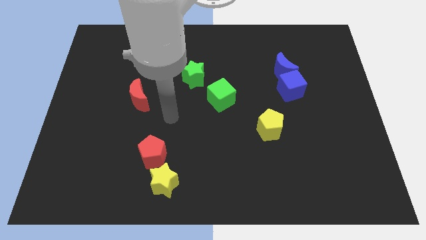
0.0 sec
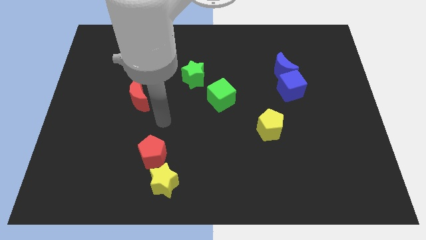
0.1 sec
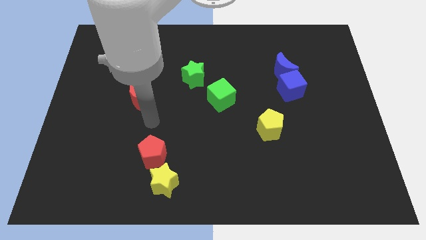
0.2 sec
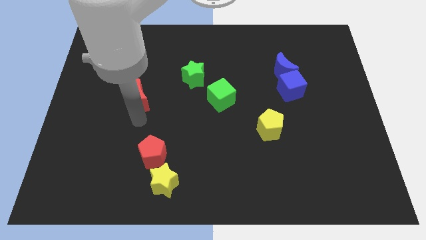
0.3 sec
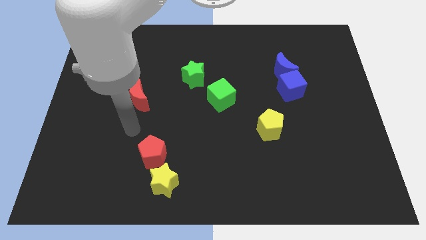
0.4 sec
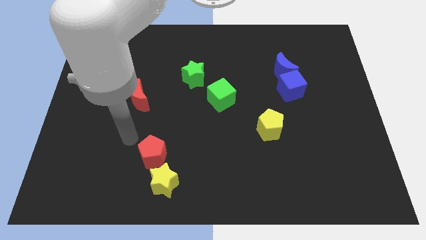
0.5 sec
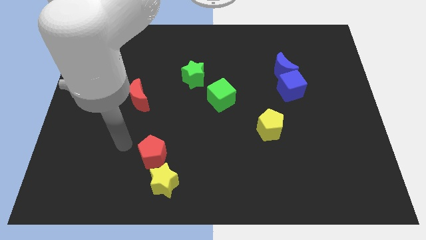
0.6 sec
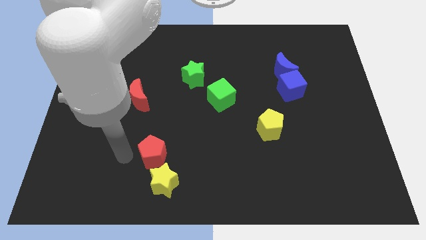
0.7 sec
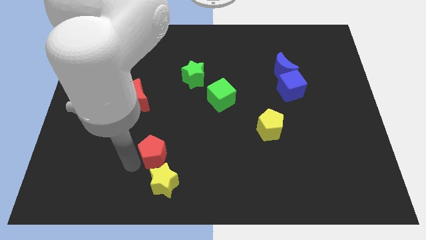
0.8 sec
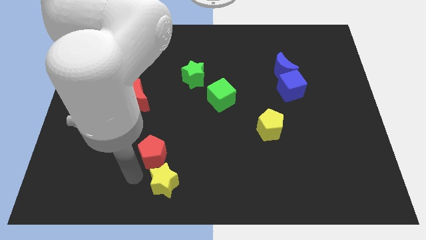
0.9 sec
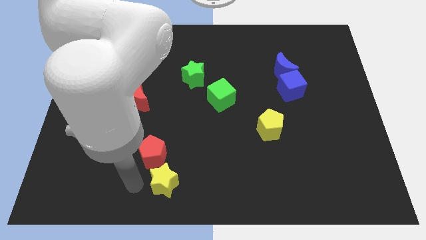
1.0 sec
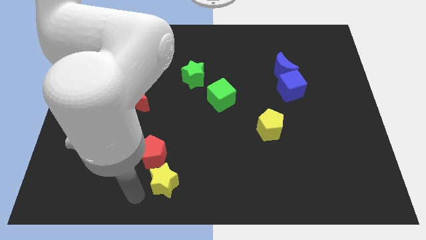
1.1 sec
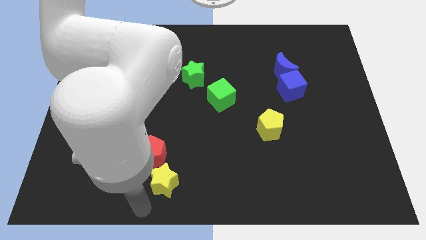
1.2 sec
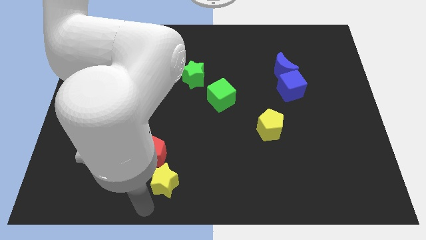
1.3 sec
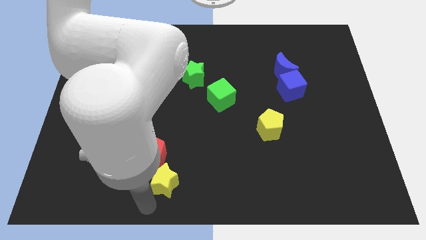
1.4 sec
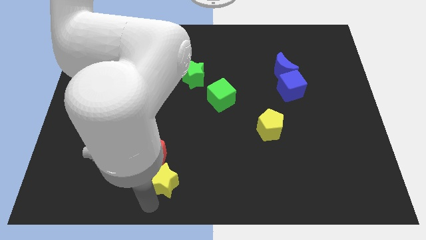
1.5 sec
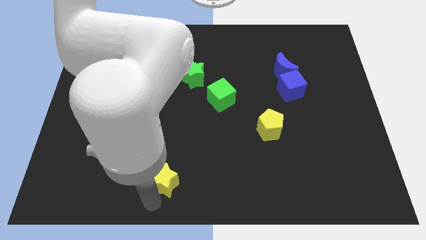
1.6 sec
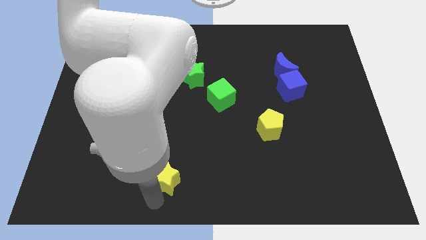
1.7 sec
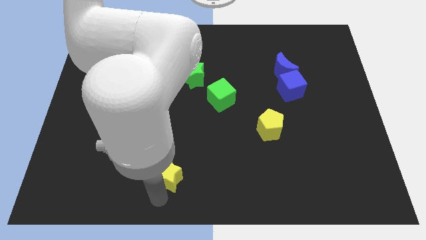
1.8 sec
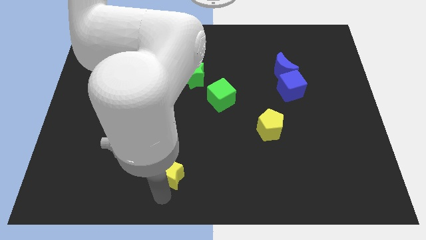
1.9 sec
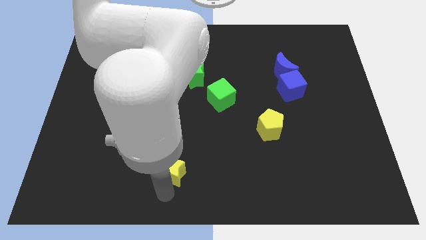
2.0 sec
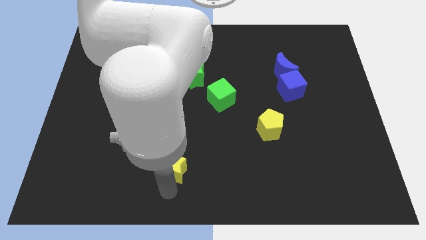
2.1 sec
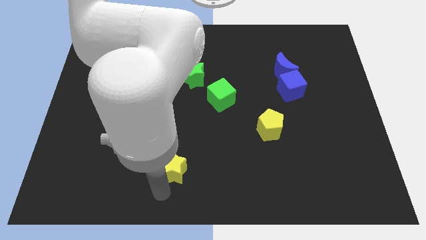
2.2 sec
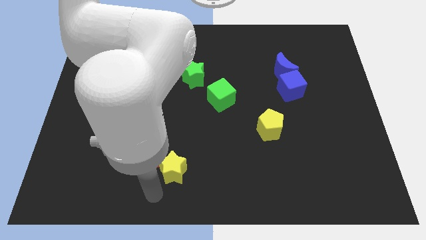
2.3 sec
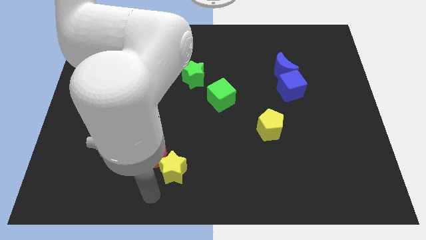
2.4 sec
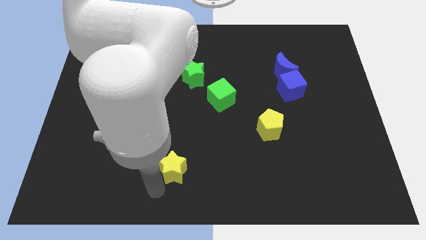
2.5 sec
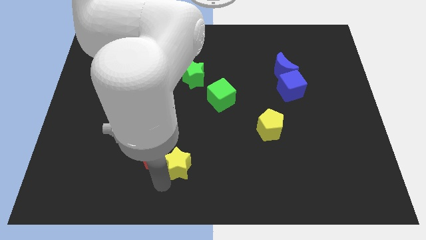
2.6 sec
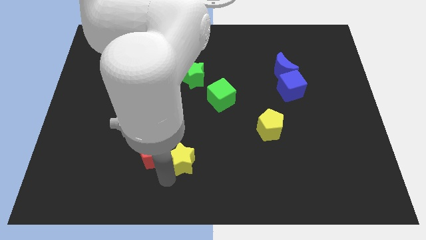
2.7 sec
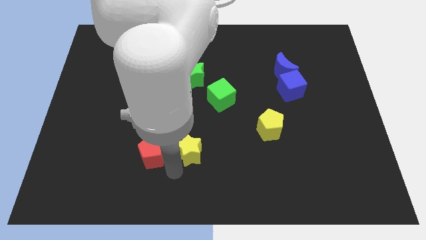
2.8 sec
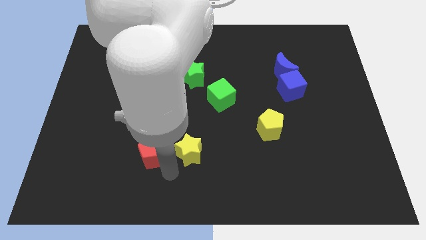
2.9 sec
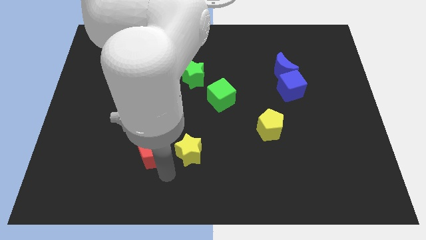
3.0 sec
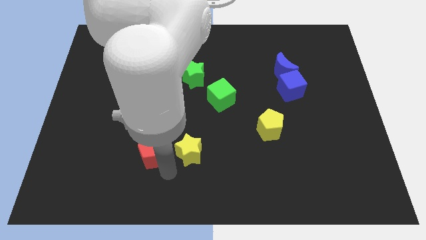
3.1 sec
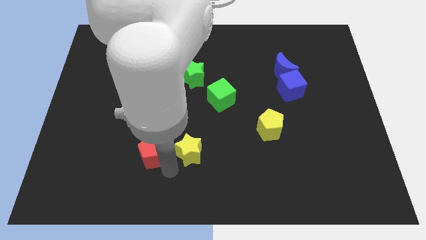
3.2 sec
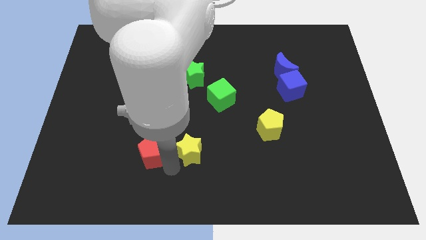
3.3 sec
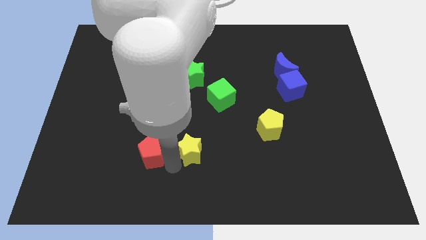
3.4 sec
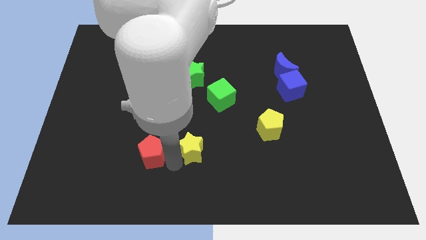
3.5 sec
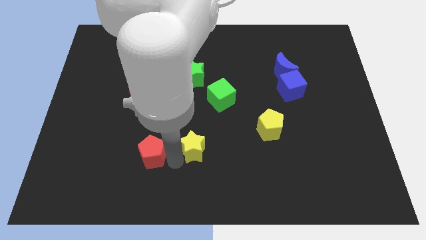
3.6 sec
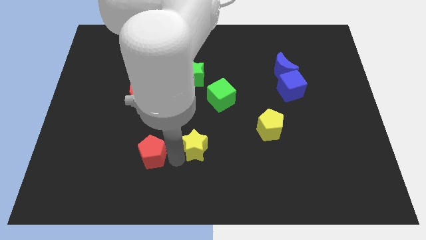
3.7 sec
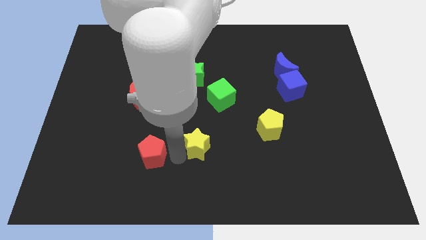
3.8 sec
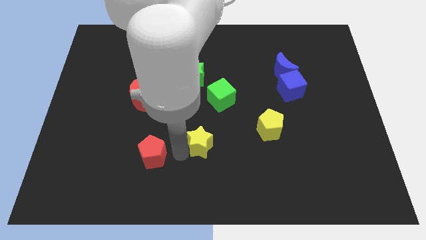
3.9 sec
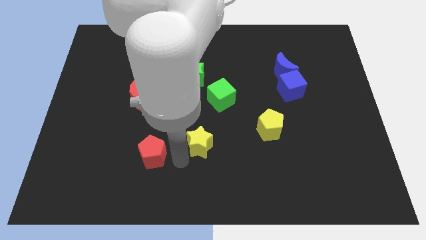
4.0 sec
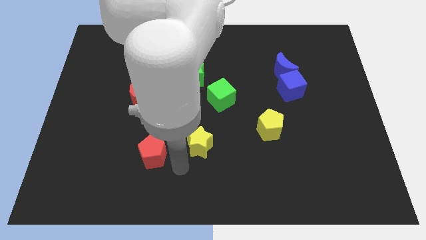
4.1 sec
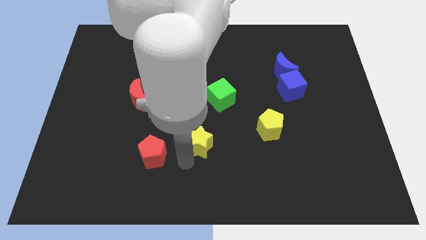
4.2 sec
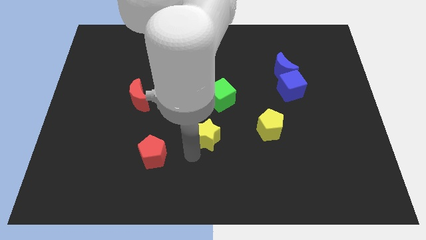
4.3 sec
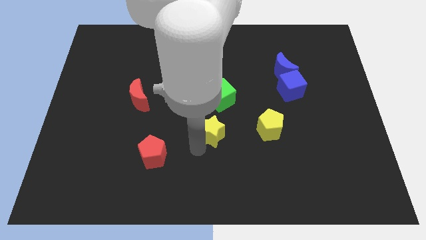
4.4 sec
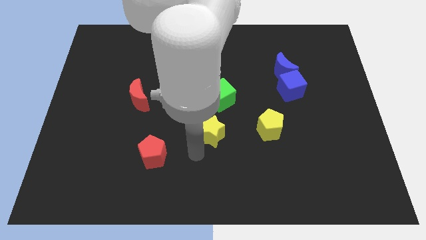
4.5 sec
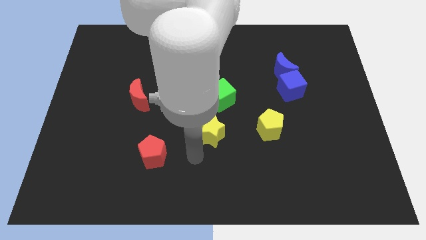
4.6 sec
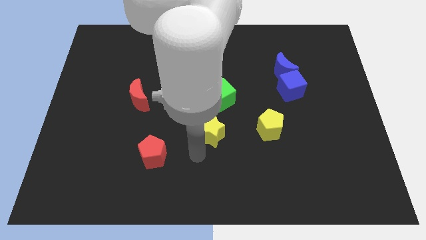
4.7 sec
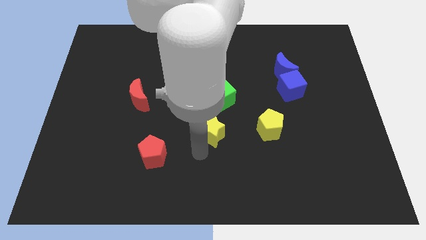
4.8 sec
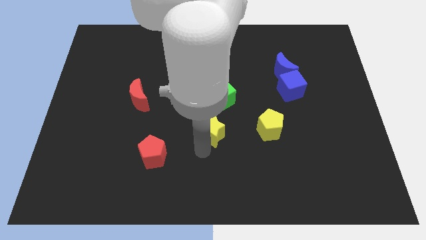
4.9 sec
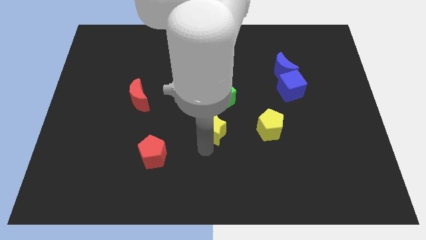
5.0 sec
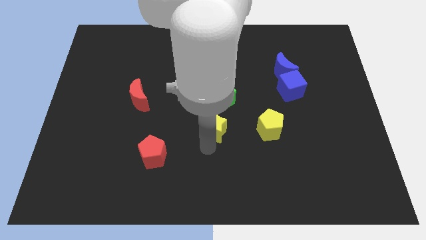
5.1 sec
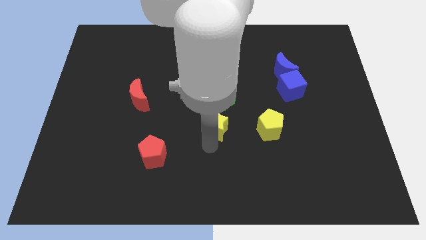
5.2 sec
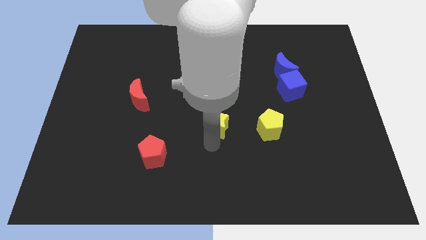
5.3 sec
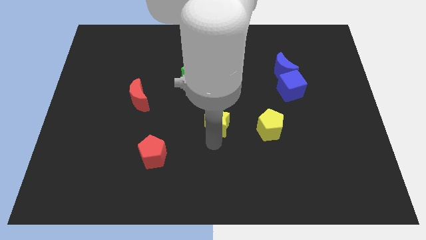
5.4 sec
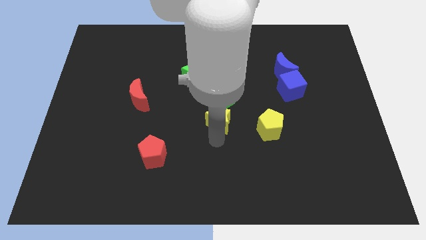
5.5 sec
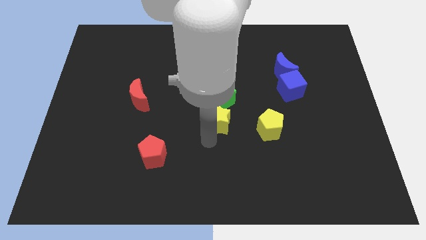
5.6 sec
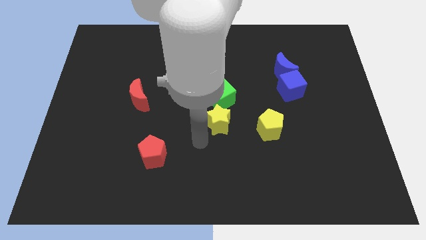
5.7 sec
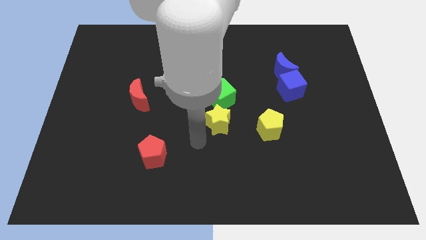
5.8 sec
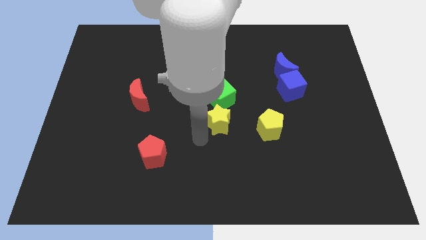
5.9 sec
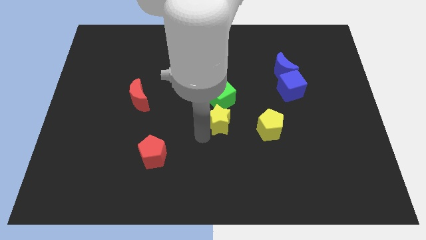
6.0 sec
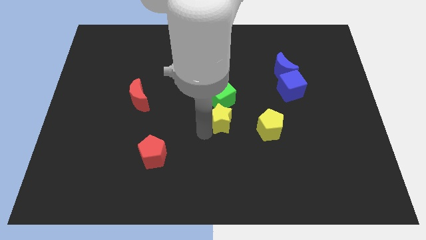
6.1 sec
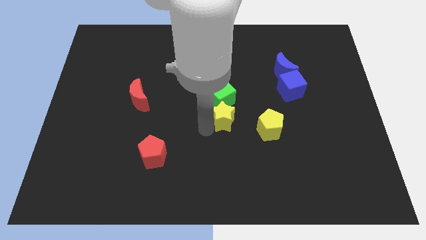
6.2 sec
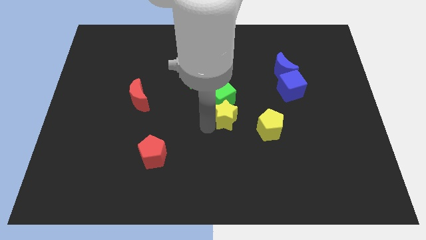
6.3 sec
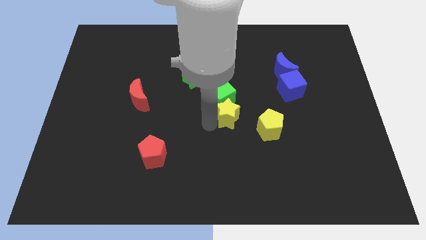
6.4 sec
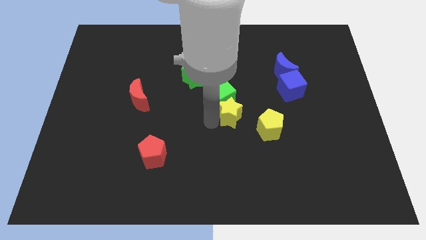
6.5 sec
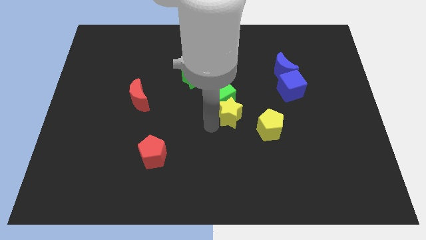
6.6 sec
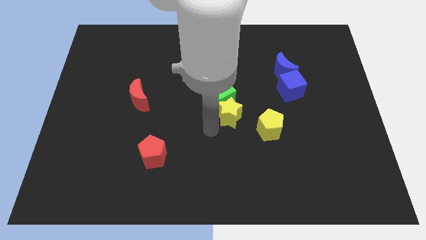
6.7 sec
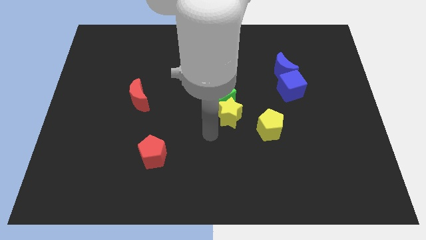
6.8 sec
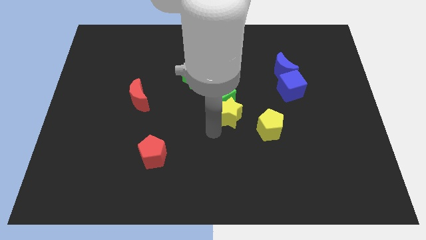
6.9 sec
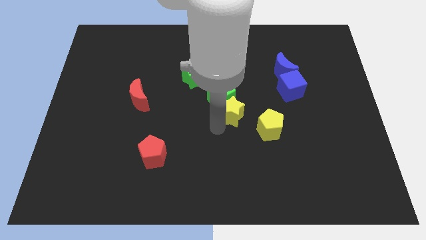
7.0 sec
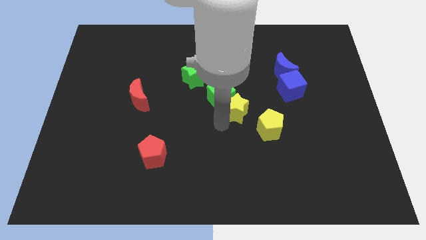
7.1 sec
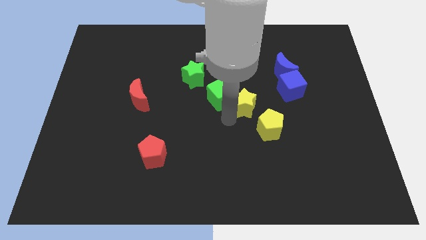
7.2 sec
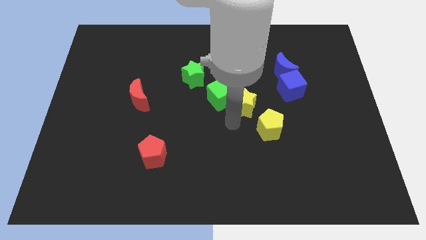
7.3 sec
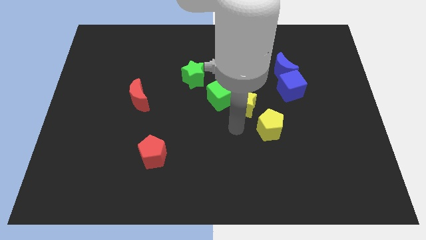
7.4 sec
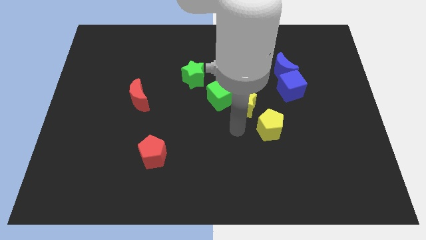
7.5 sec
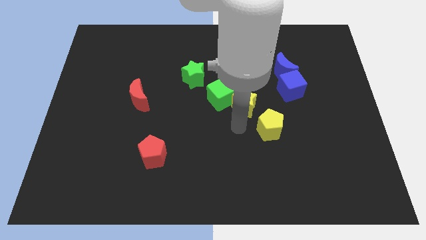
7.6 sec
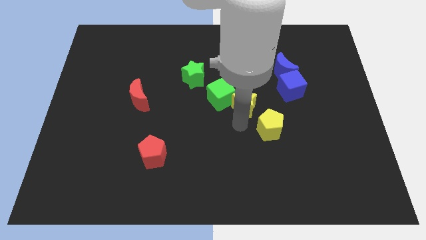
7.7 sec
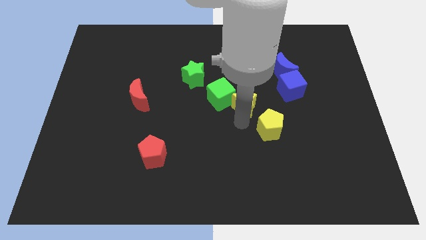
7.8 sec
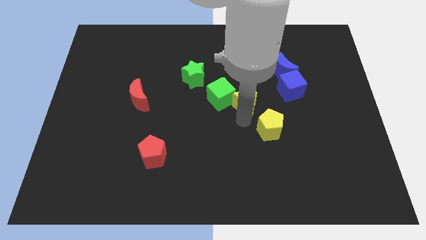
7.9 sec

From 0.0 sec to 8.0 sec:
push the yellow star just left of the blue cube

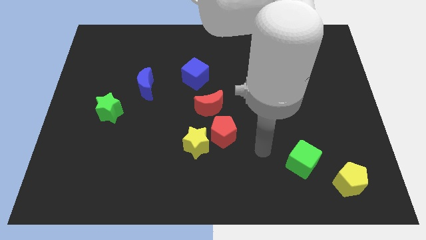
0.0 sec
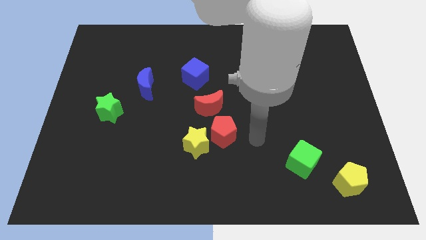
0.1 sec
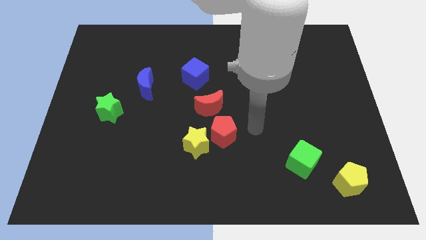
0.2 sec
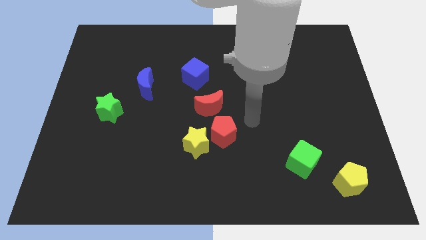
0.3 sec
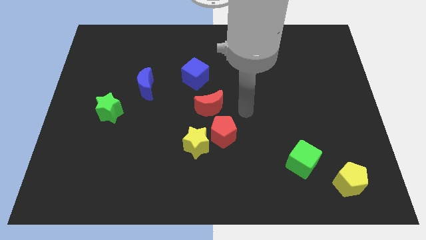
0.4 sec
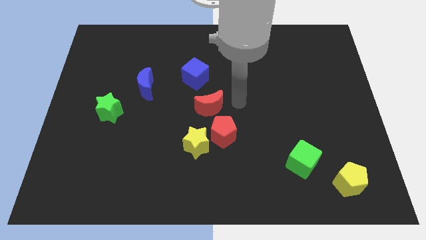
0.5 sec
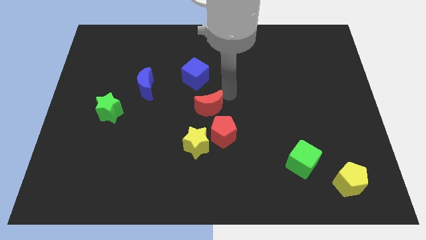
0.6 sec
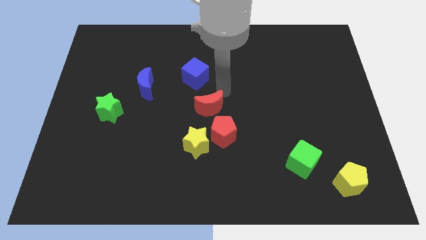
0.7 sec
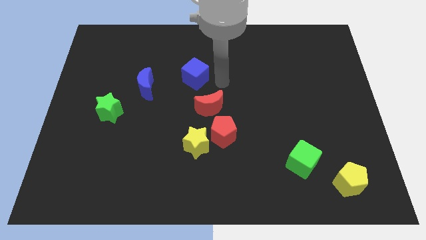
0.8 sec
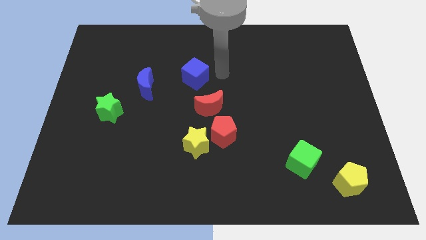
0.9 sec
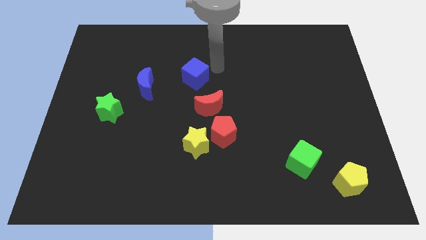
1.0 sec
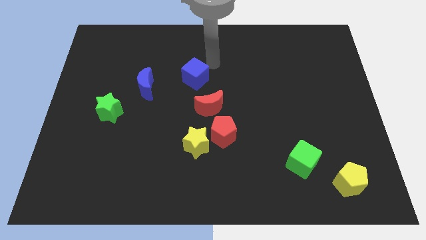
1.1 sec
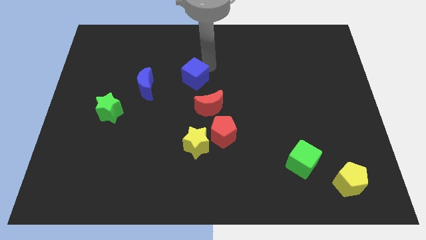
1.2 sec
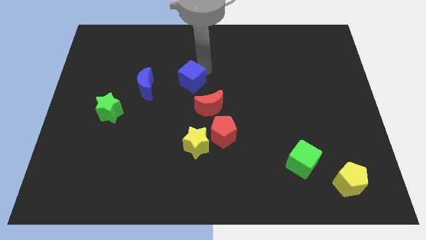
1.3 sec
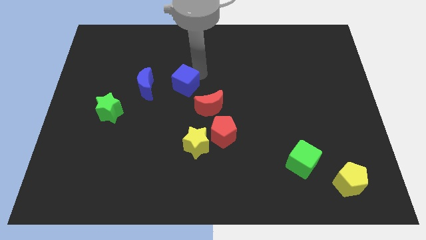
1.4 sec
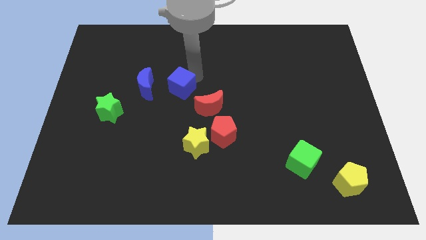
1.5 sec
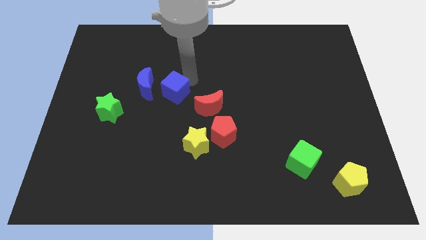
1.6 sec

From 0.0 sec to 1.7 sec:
put the blue cube to the bottom right side of the blue moon
